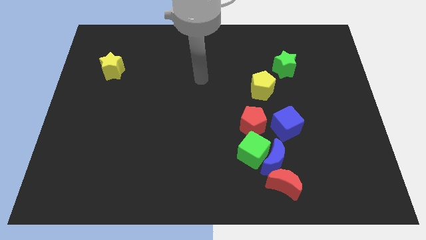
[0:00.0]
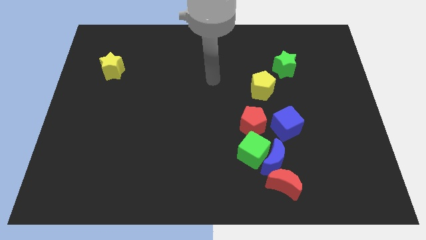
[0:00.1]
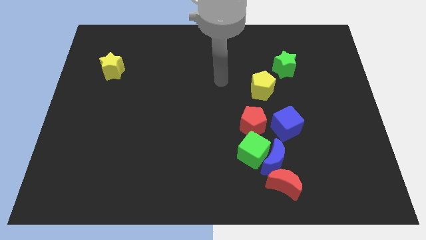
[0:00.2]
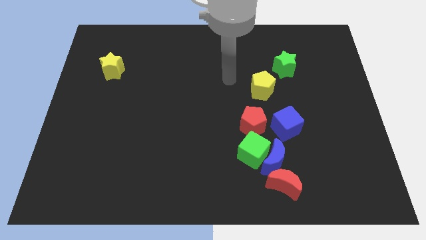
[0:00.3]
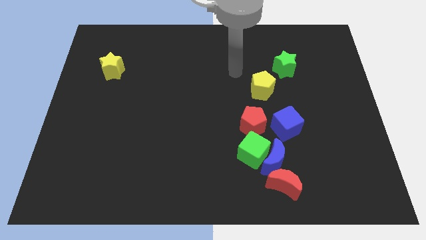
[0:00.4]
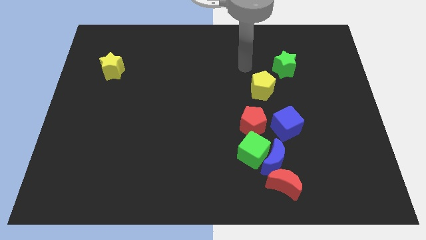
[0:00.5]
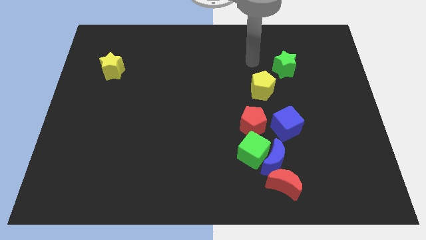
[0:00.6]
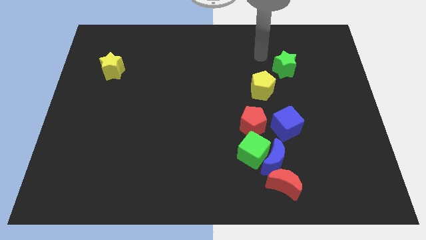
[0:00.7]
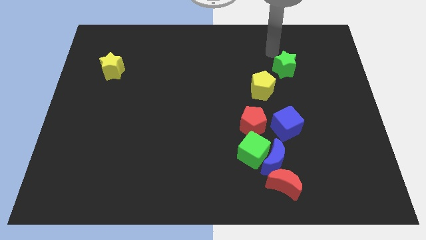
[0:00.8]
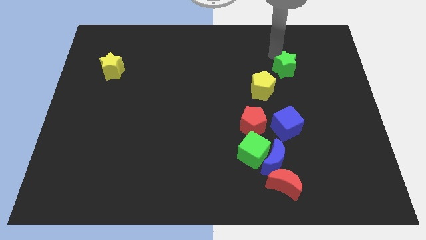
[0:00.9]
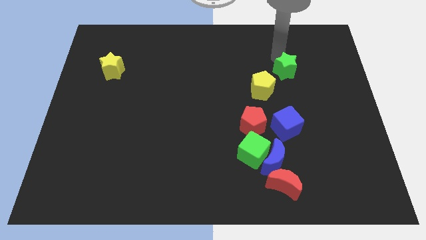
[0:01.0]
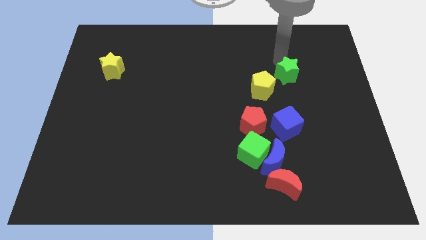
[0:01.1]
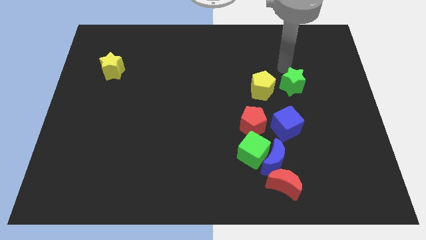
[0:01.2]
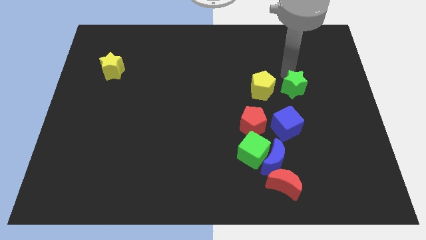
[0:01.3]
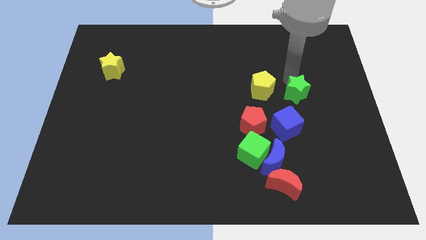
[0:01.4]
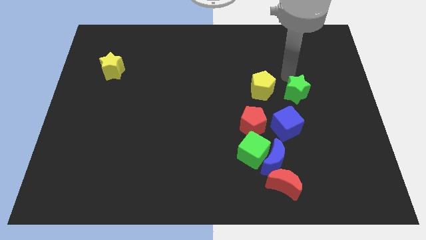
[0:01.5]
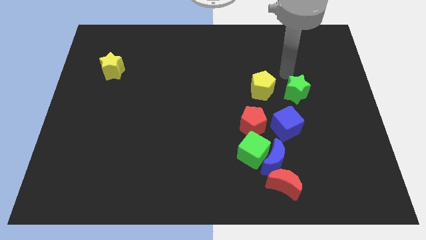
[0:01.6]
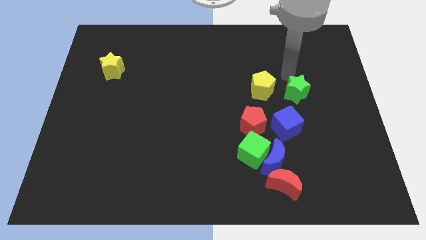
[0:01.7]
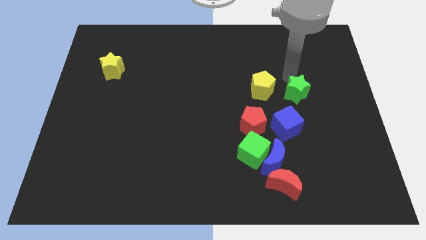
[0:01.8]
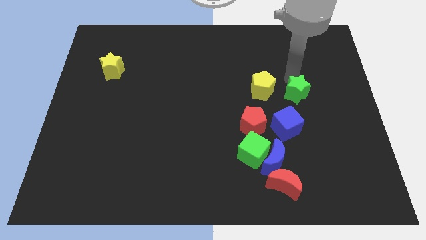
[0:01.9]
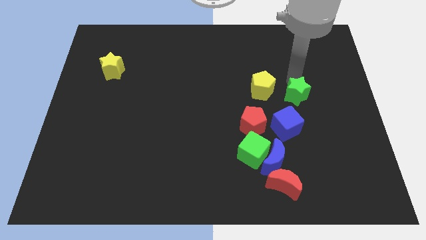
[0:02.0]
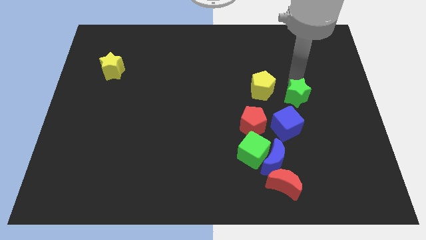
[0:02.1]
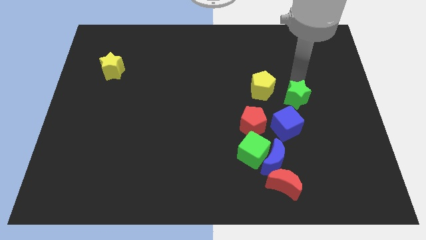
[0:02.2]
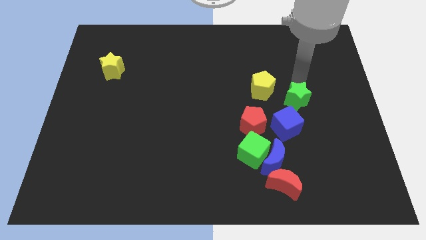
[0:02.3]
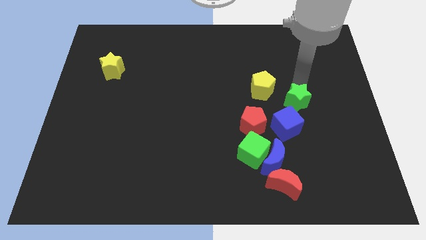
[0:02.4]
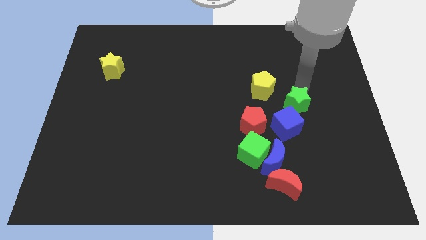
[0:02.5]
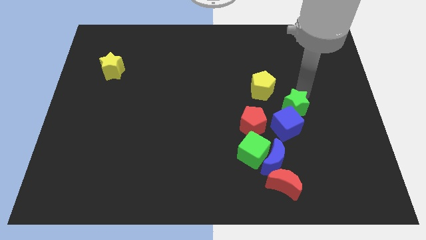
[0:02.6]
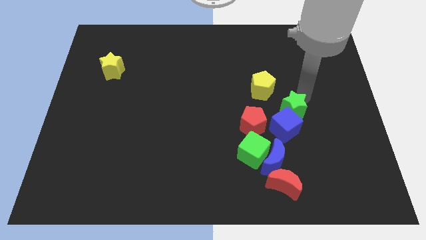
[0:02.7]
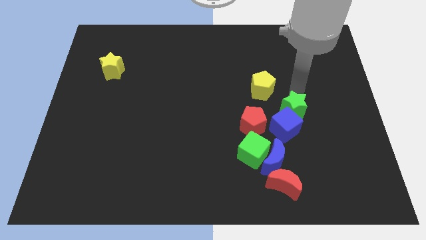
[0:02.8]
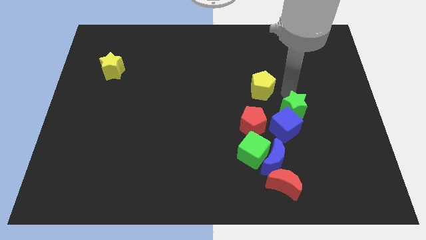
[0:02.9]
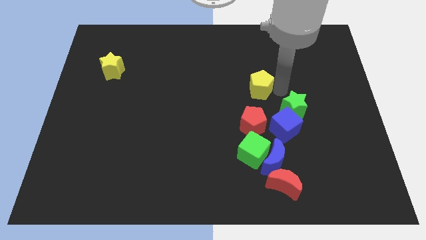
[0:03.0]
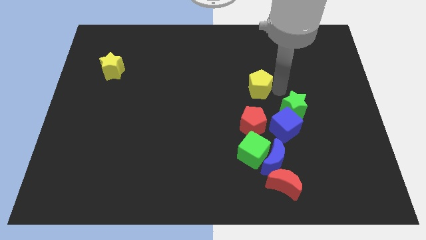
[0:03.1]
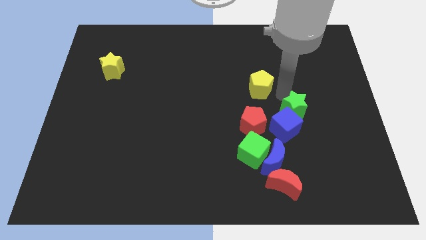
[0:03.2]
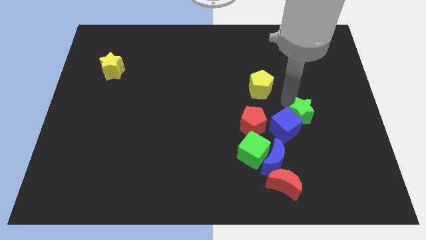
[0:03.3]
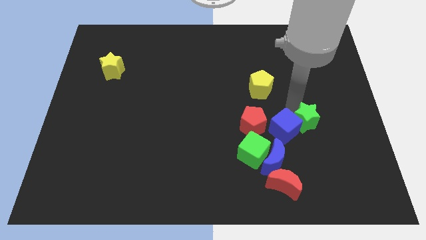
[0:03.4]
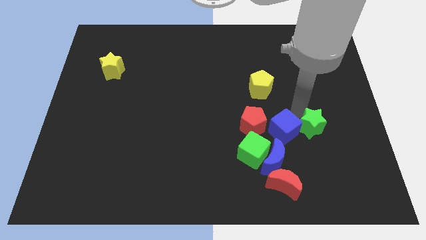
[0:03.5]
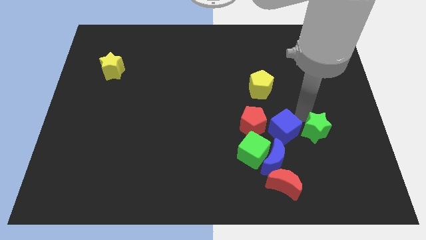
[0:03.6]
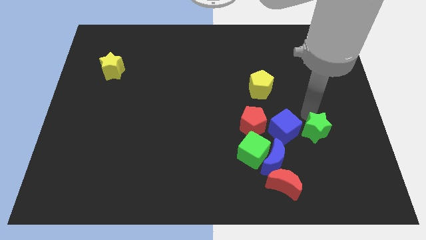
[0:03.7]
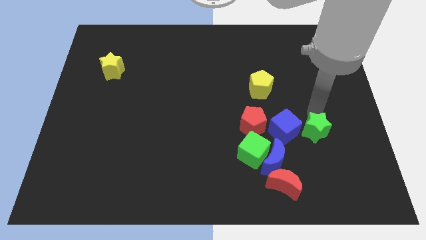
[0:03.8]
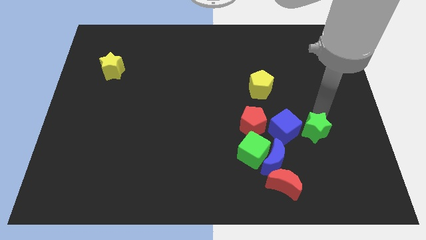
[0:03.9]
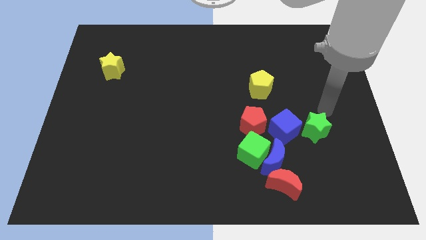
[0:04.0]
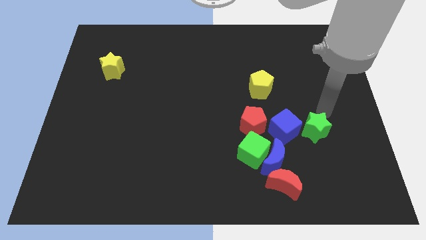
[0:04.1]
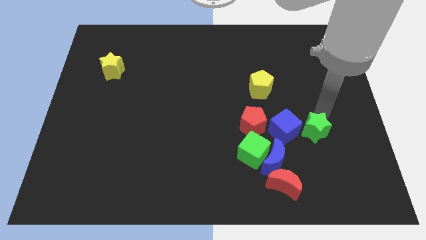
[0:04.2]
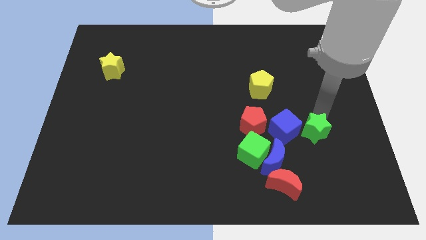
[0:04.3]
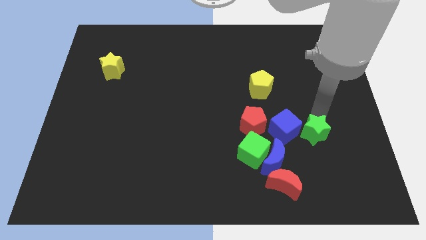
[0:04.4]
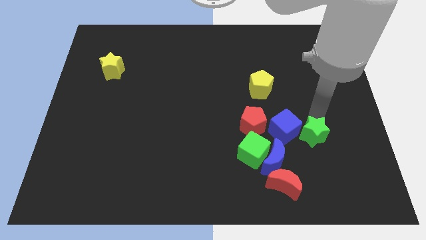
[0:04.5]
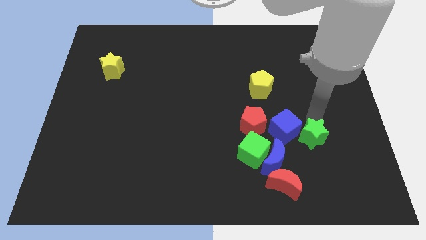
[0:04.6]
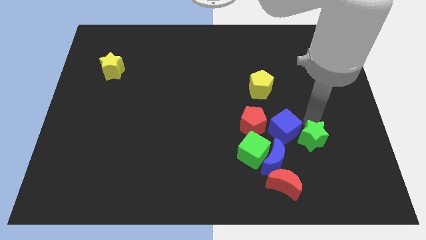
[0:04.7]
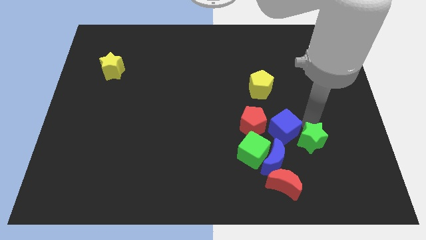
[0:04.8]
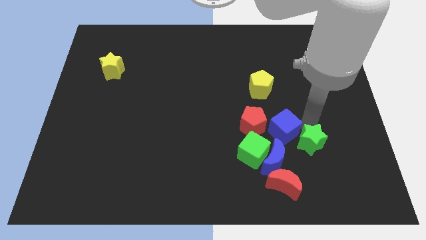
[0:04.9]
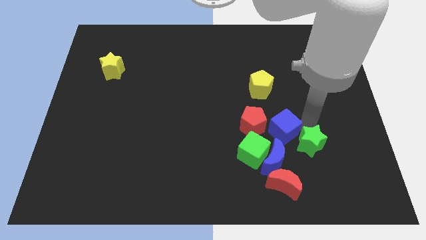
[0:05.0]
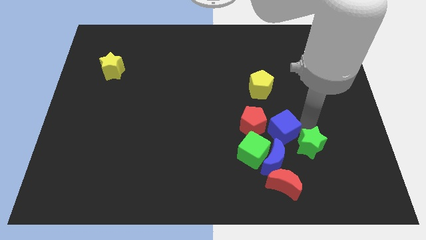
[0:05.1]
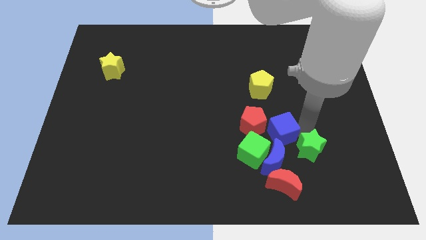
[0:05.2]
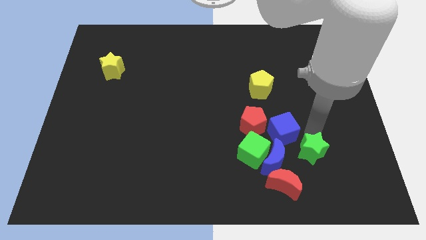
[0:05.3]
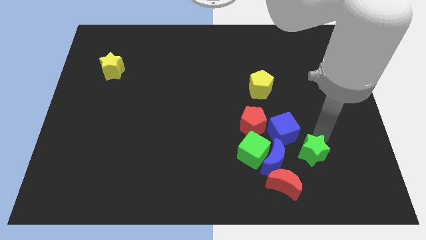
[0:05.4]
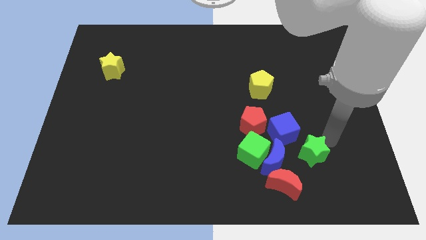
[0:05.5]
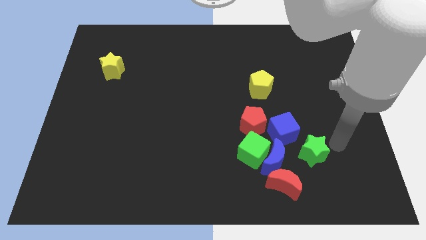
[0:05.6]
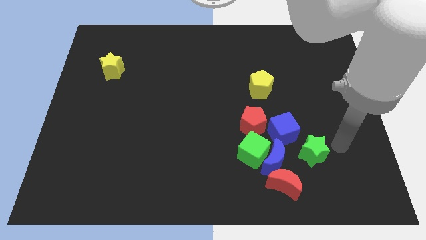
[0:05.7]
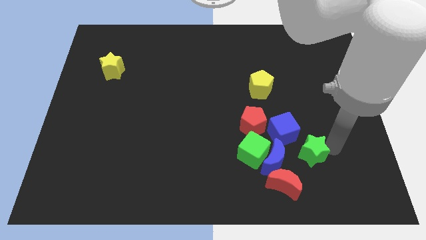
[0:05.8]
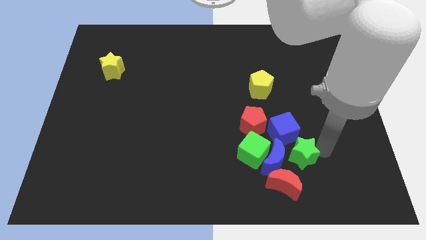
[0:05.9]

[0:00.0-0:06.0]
move the green star next to the blue moon

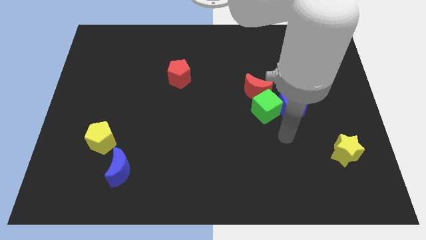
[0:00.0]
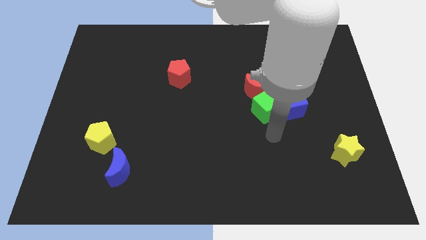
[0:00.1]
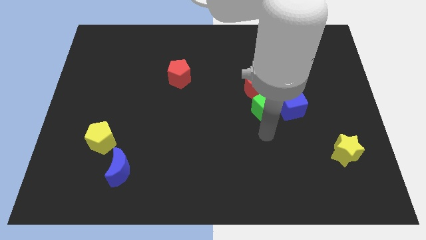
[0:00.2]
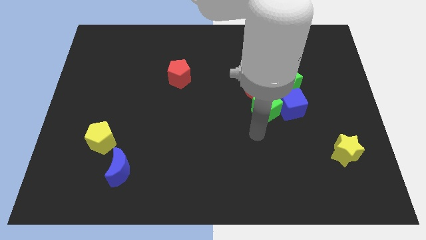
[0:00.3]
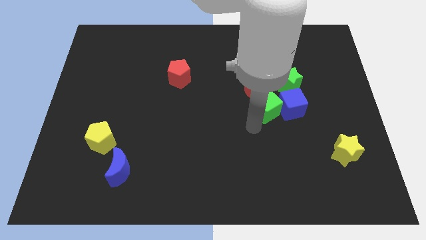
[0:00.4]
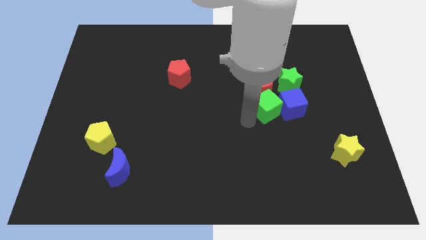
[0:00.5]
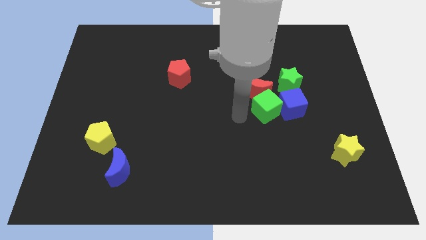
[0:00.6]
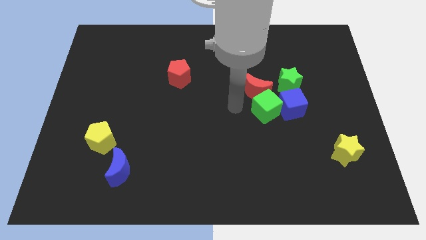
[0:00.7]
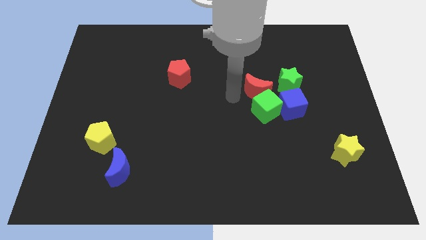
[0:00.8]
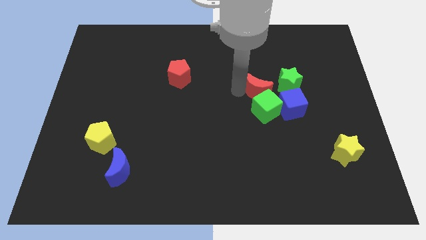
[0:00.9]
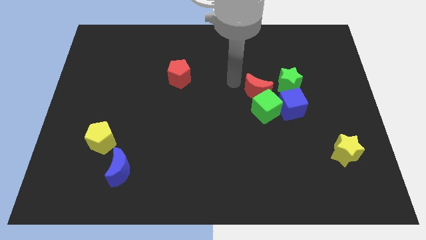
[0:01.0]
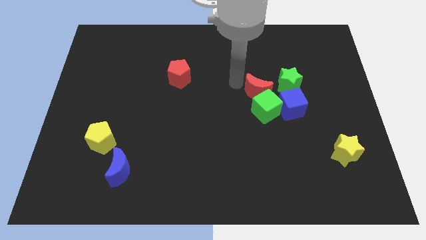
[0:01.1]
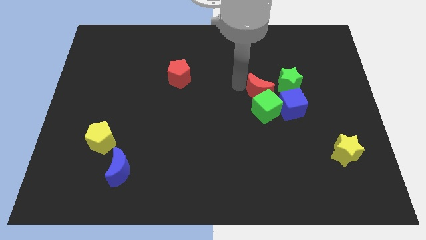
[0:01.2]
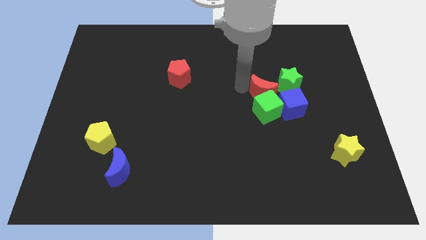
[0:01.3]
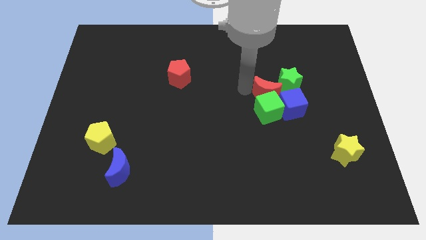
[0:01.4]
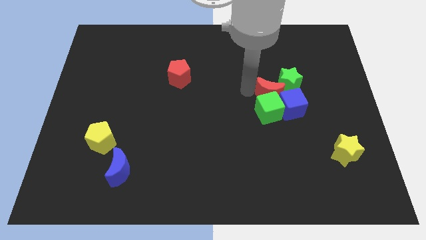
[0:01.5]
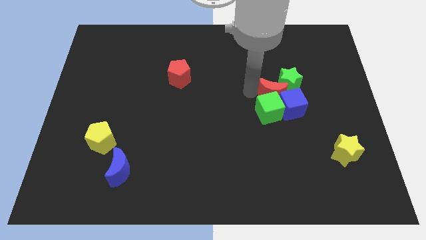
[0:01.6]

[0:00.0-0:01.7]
push the red moon towards the blue cube

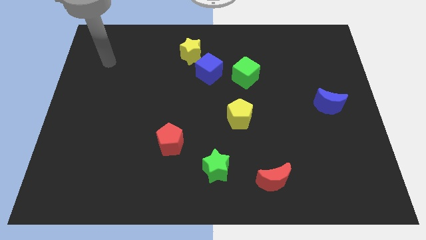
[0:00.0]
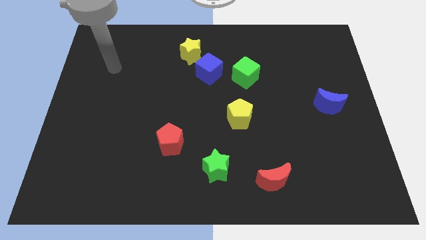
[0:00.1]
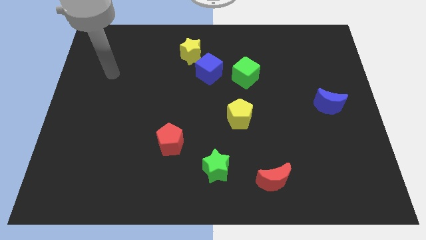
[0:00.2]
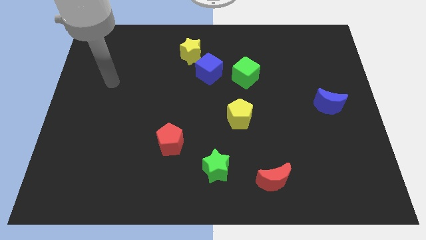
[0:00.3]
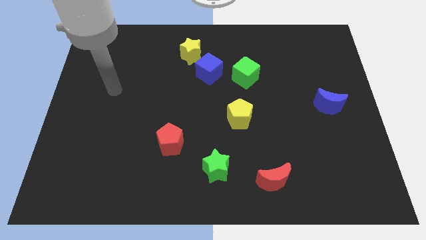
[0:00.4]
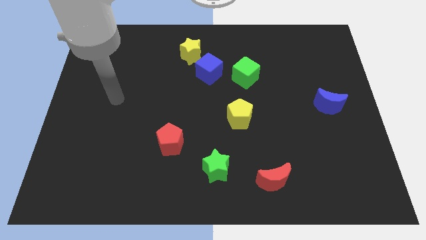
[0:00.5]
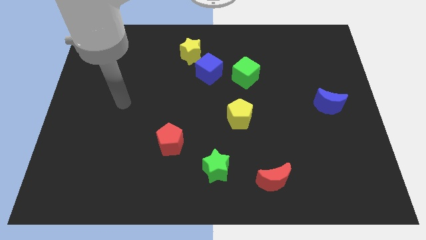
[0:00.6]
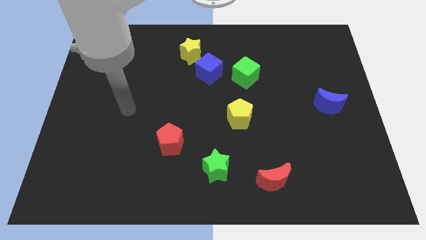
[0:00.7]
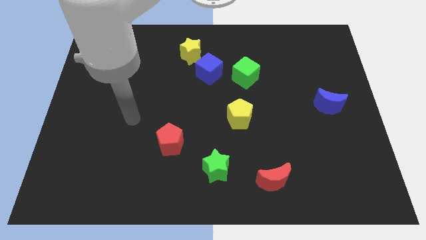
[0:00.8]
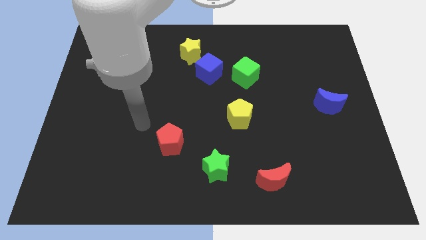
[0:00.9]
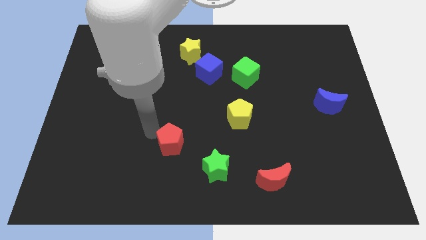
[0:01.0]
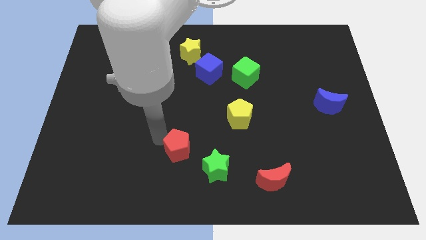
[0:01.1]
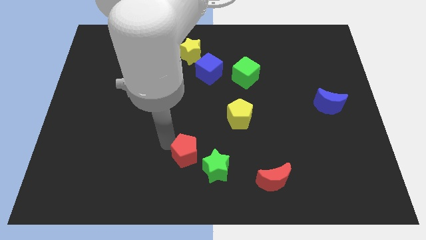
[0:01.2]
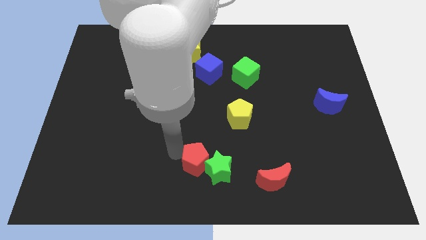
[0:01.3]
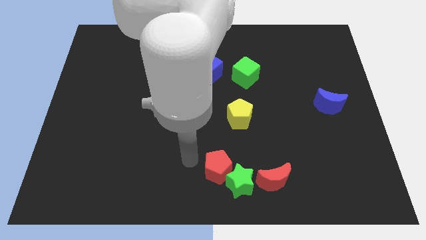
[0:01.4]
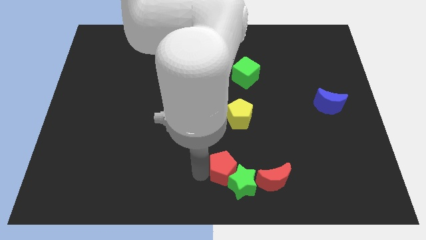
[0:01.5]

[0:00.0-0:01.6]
push the green star next to the red moon
